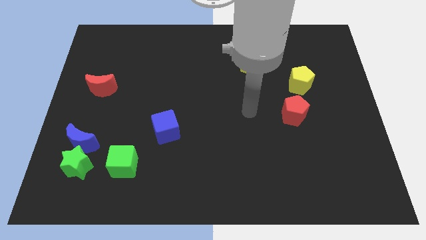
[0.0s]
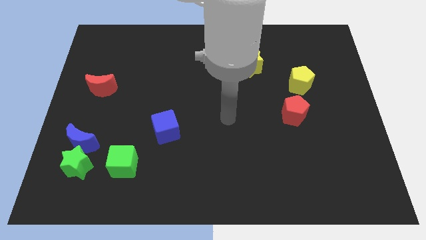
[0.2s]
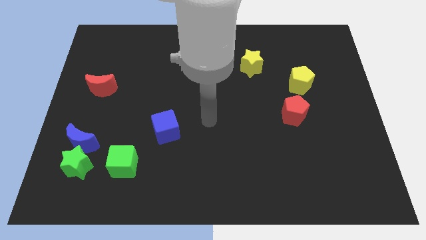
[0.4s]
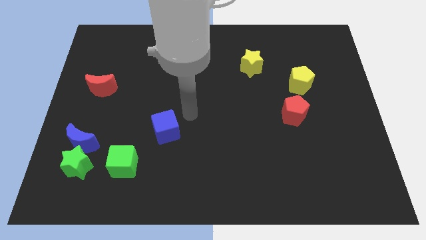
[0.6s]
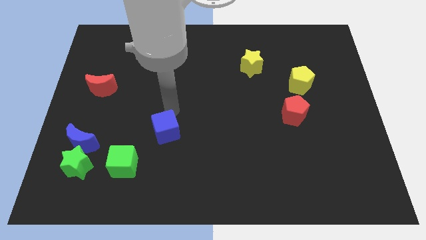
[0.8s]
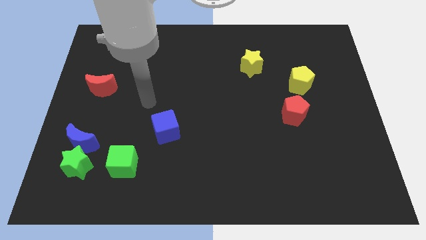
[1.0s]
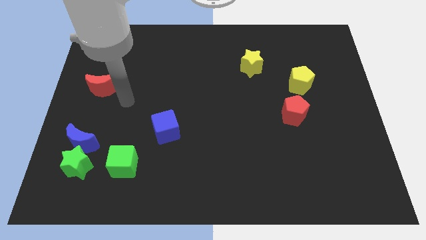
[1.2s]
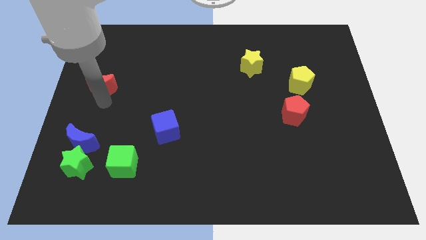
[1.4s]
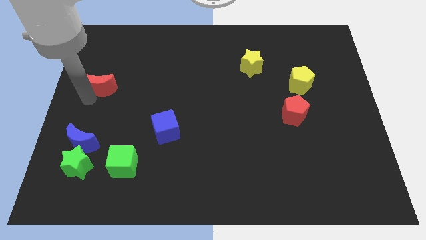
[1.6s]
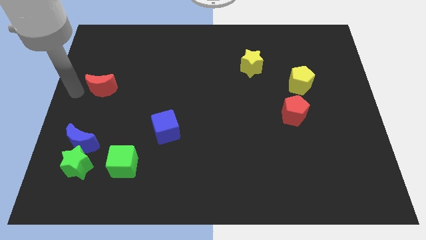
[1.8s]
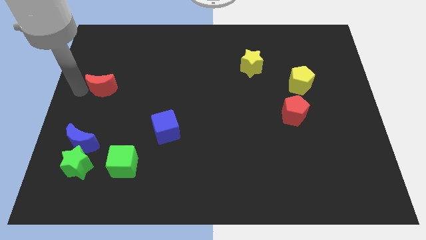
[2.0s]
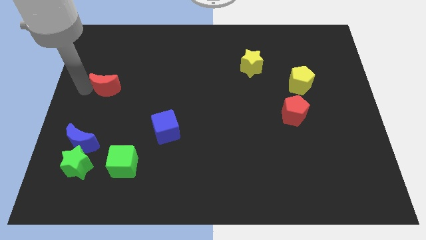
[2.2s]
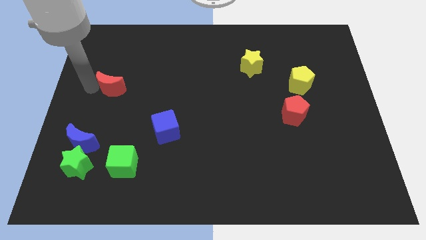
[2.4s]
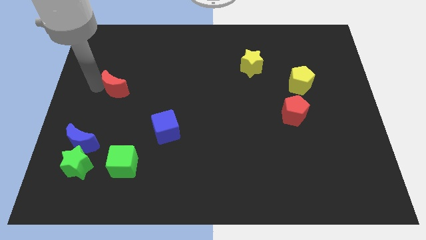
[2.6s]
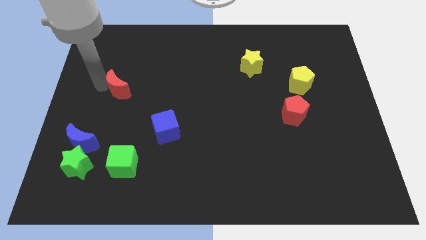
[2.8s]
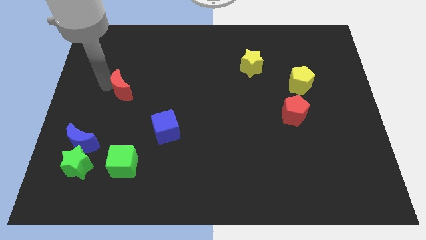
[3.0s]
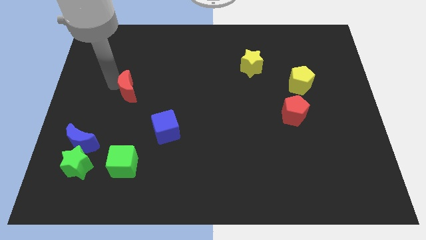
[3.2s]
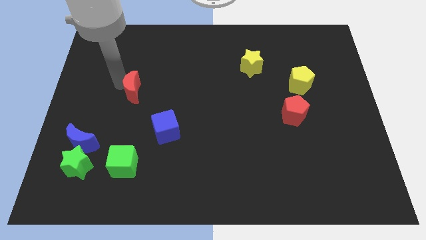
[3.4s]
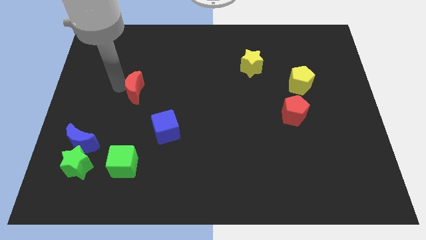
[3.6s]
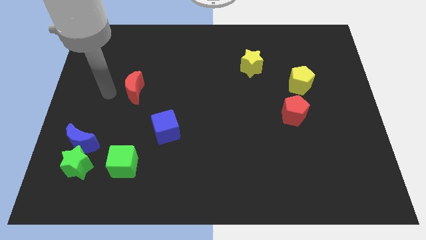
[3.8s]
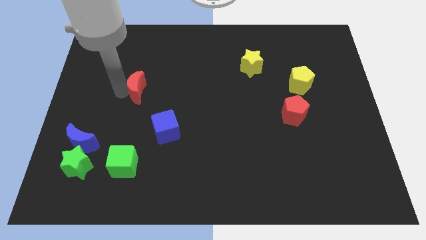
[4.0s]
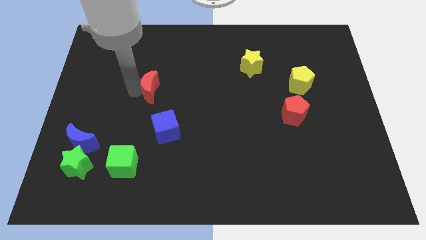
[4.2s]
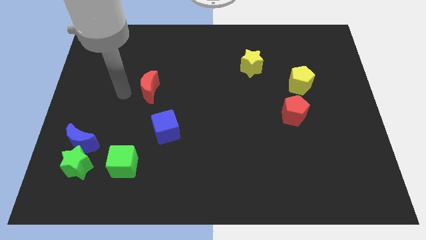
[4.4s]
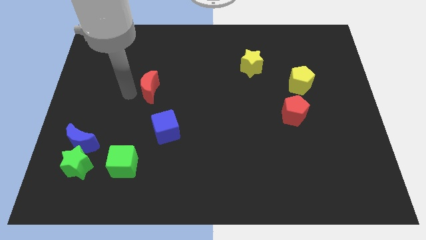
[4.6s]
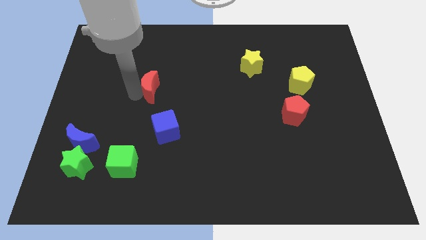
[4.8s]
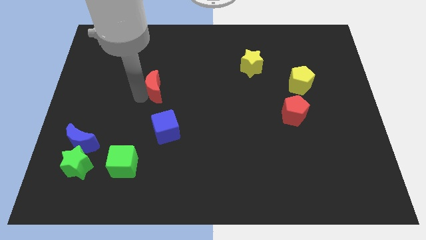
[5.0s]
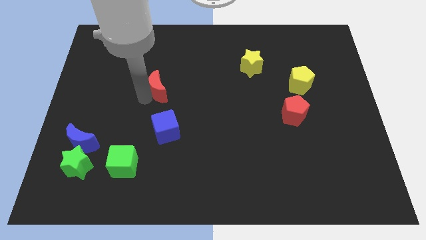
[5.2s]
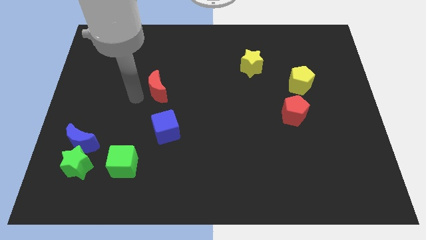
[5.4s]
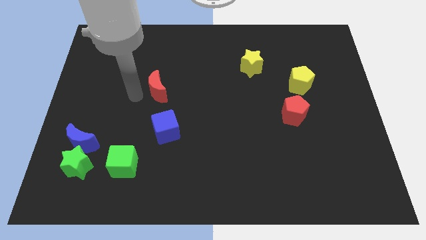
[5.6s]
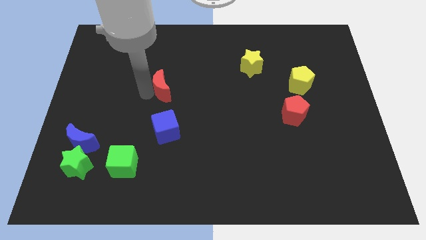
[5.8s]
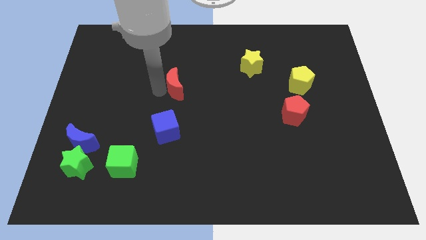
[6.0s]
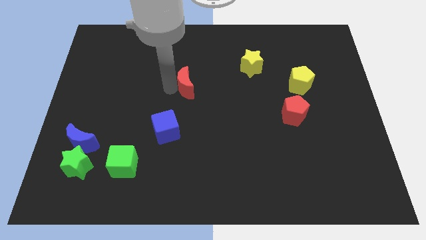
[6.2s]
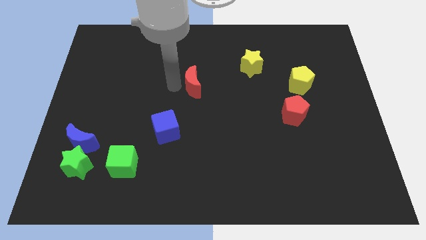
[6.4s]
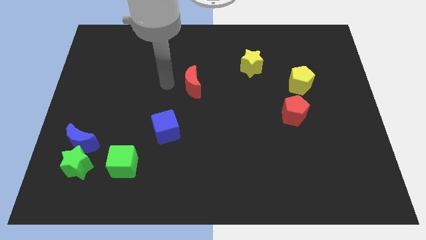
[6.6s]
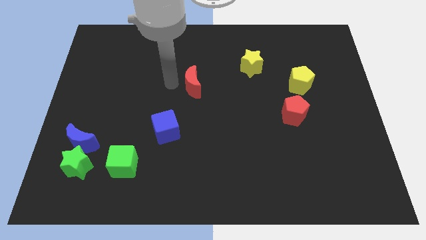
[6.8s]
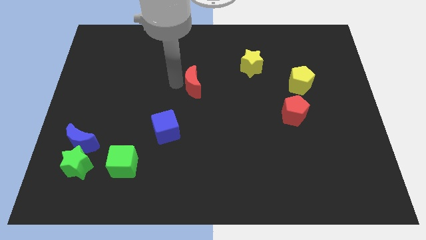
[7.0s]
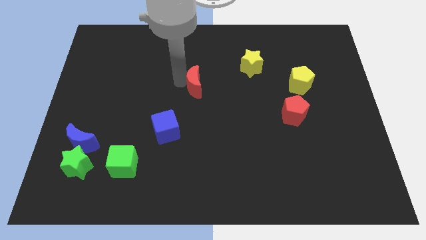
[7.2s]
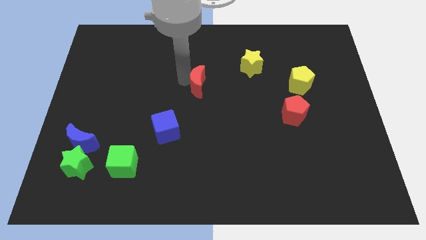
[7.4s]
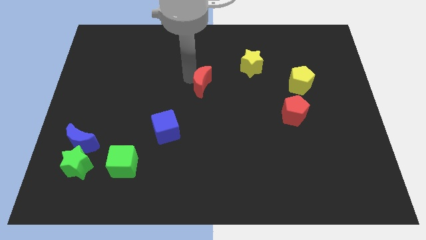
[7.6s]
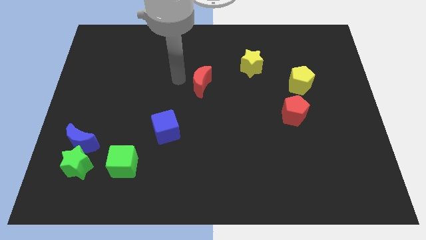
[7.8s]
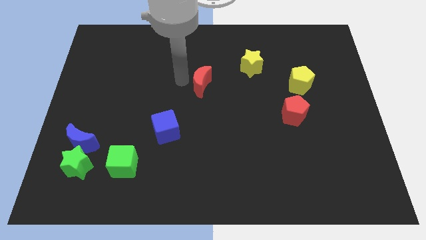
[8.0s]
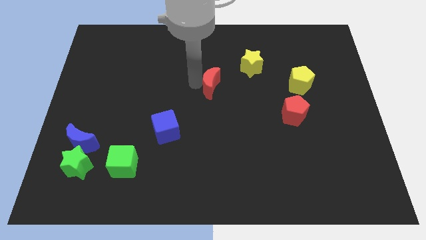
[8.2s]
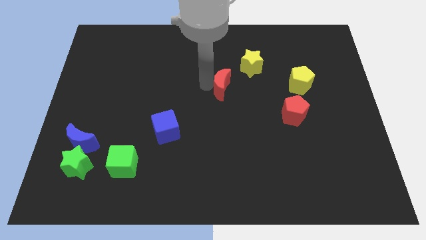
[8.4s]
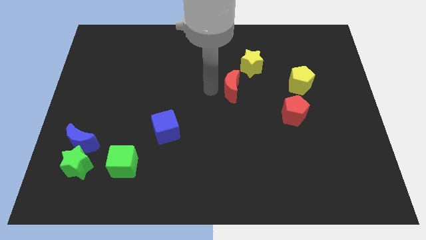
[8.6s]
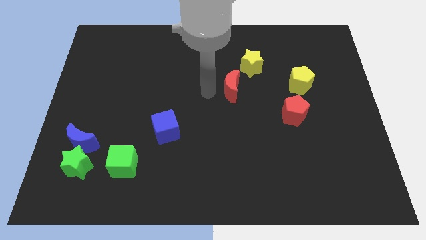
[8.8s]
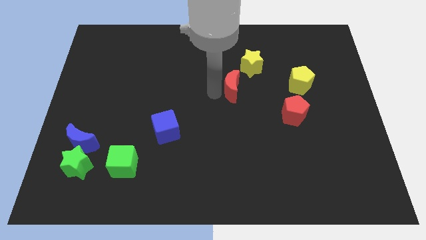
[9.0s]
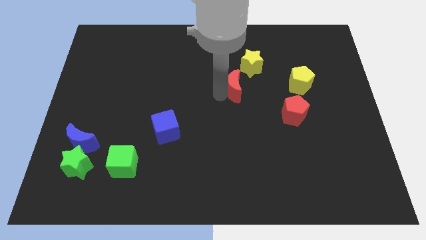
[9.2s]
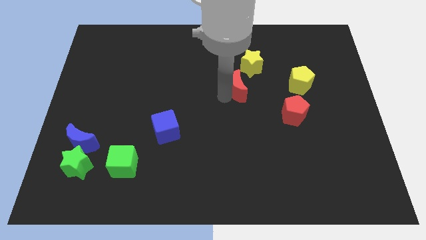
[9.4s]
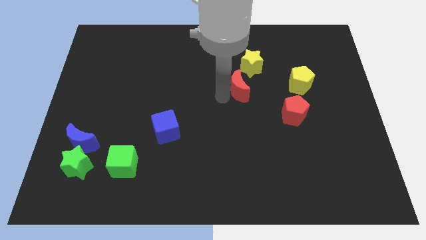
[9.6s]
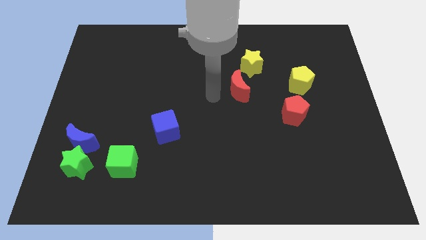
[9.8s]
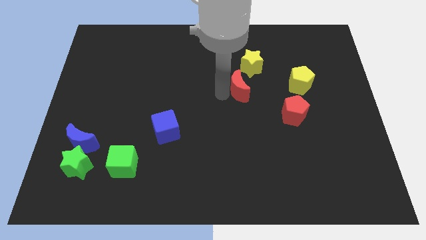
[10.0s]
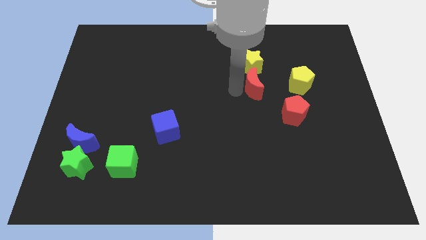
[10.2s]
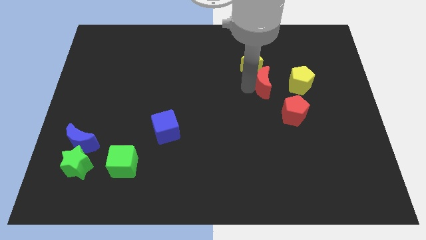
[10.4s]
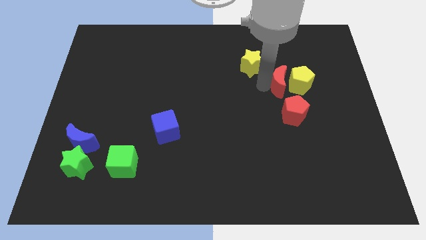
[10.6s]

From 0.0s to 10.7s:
slide the red moon close to the yellow pentagon

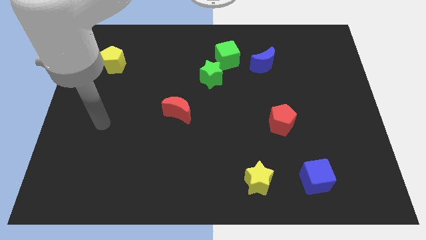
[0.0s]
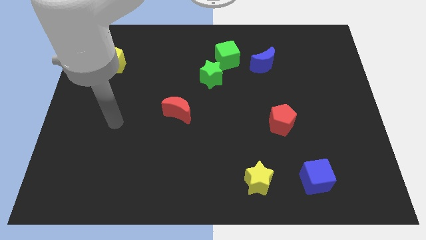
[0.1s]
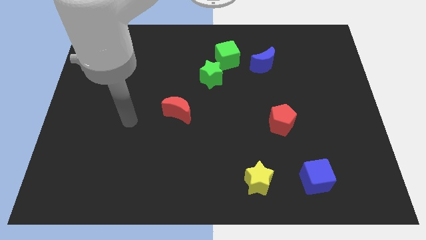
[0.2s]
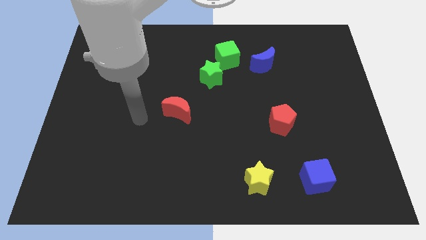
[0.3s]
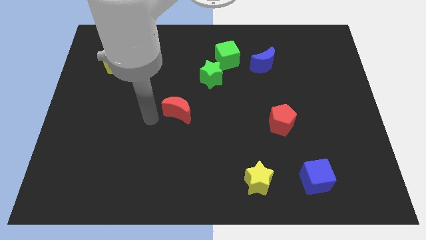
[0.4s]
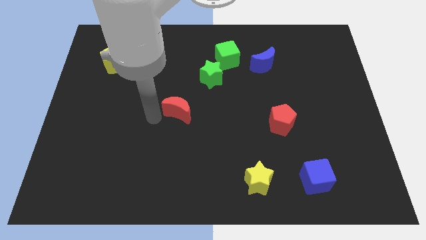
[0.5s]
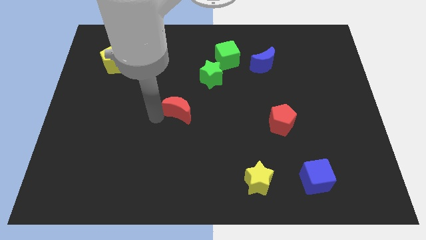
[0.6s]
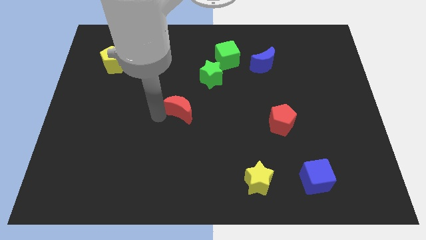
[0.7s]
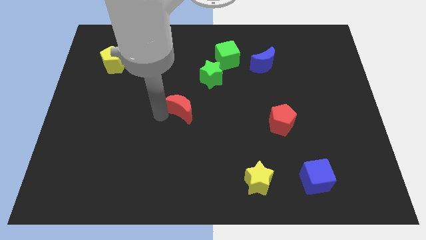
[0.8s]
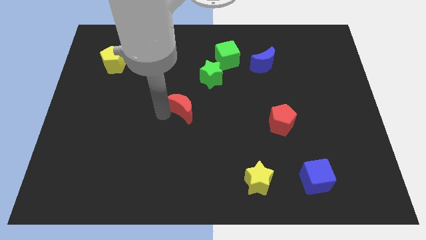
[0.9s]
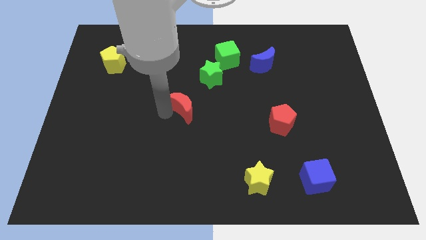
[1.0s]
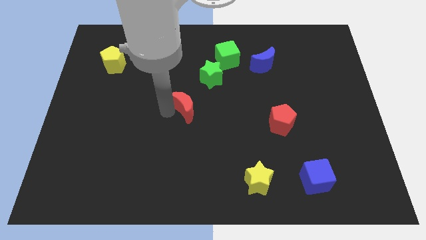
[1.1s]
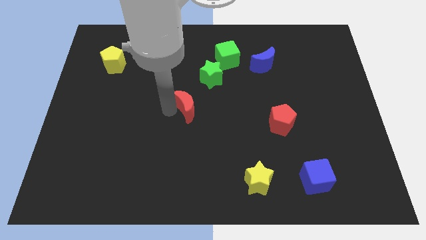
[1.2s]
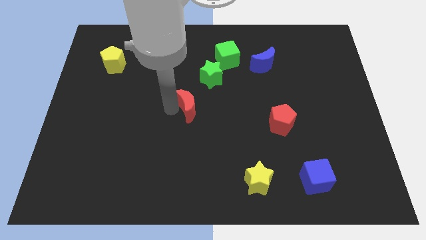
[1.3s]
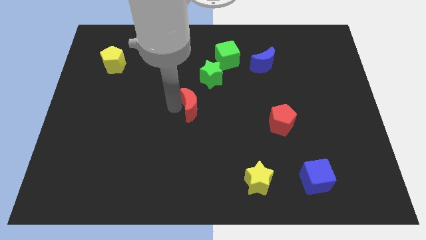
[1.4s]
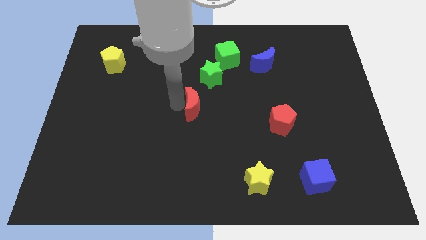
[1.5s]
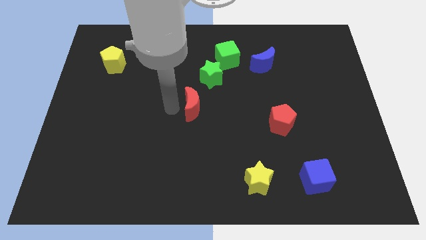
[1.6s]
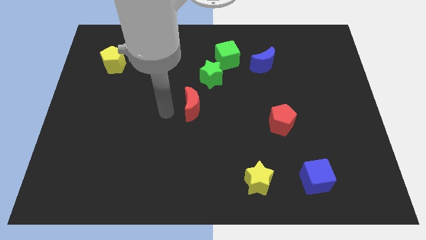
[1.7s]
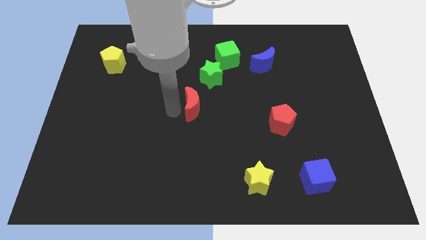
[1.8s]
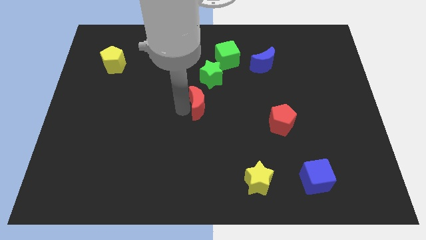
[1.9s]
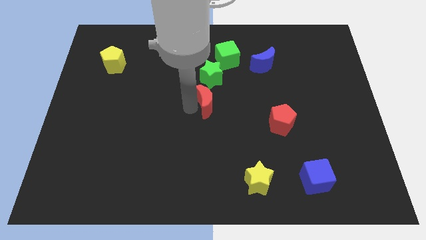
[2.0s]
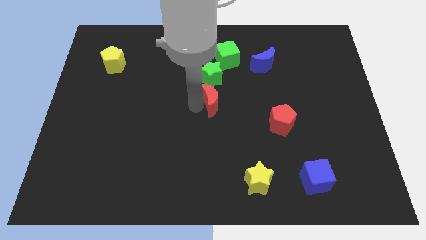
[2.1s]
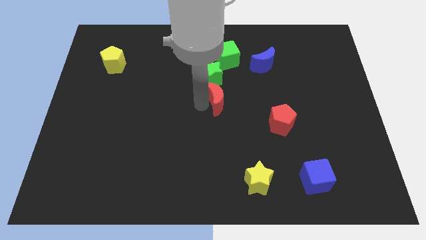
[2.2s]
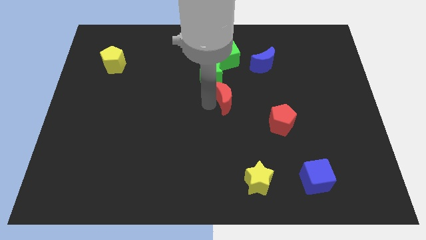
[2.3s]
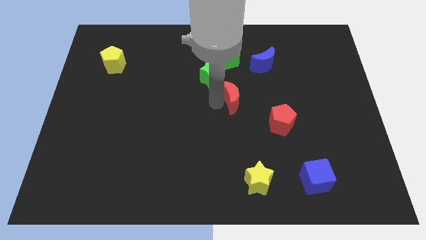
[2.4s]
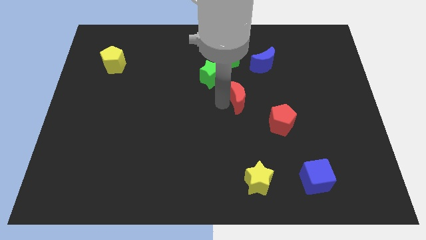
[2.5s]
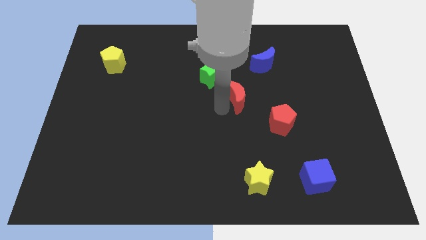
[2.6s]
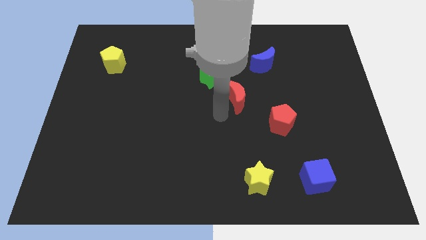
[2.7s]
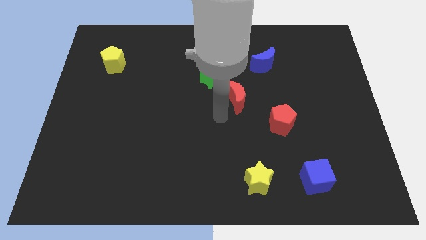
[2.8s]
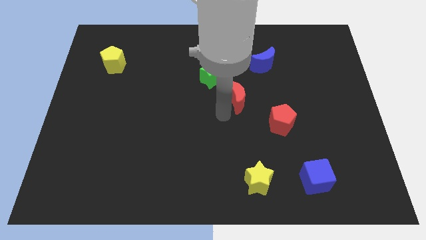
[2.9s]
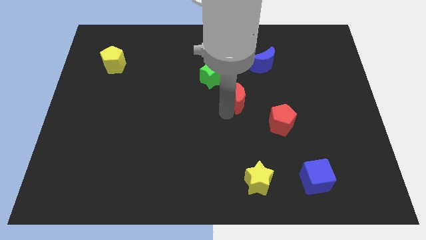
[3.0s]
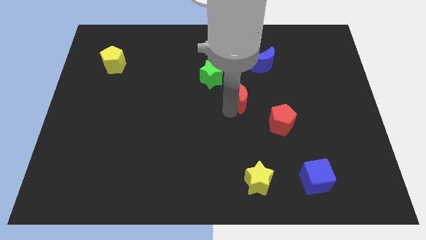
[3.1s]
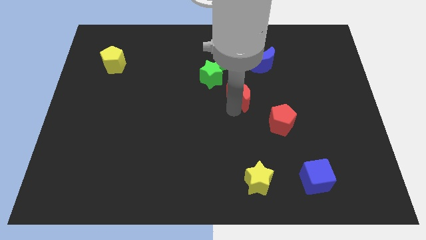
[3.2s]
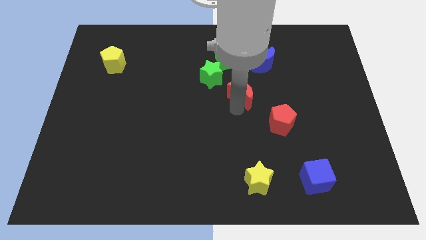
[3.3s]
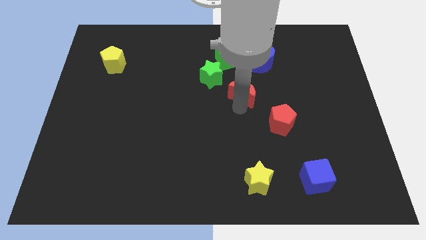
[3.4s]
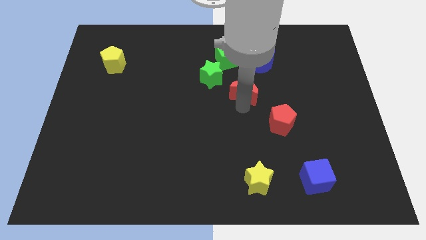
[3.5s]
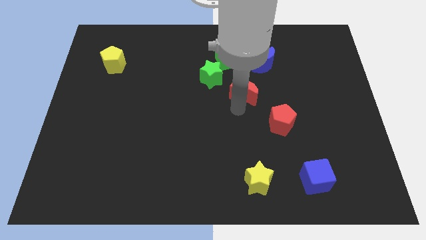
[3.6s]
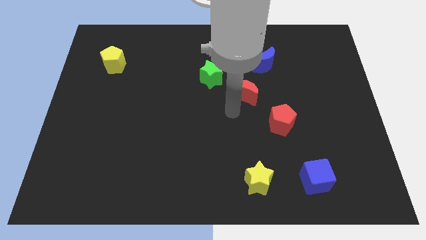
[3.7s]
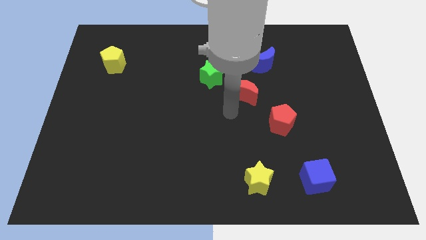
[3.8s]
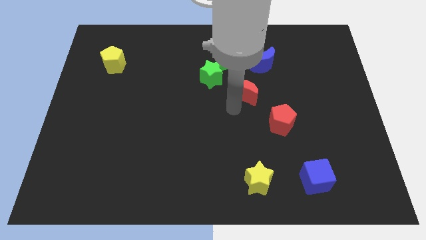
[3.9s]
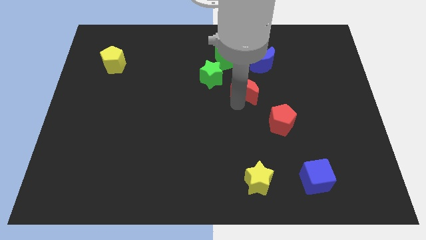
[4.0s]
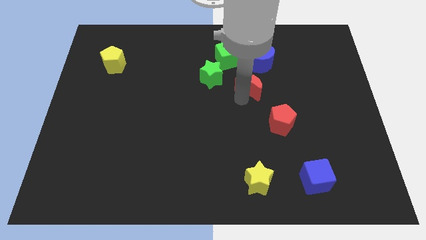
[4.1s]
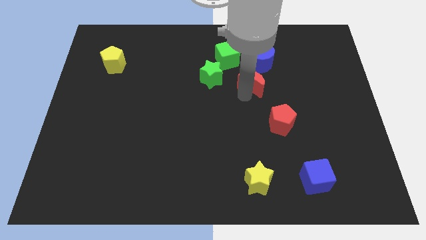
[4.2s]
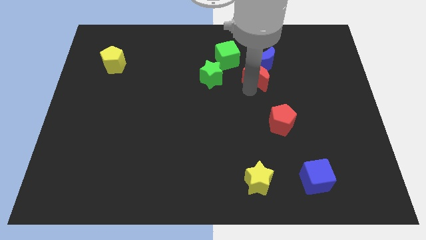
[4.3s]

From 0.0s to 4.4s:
push the red moon close to the blue moon
